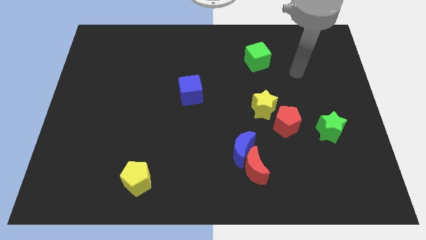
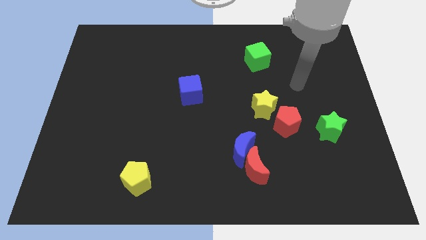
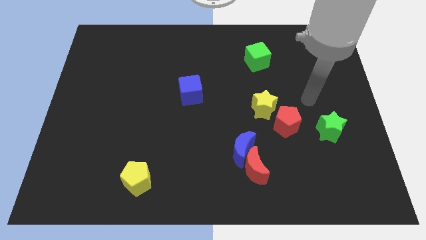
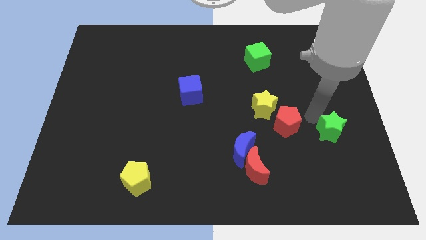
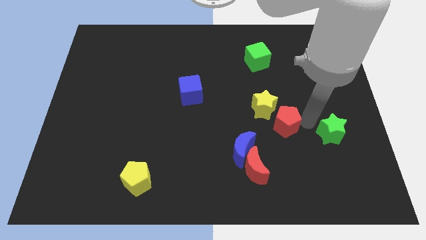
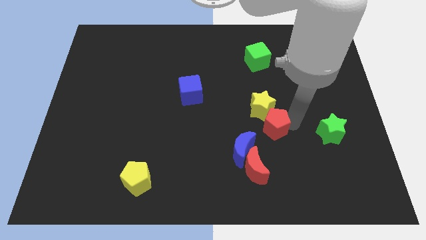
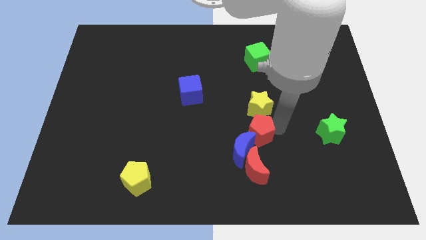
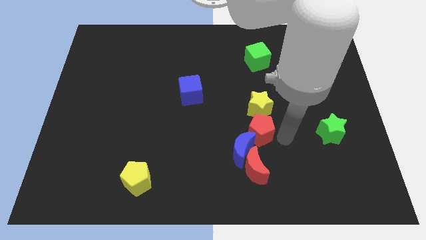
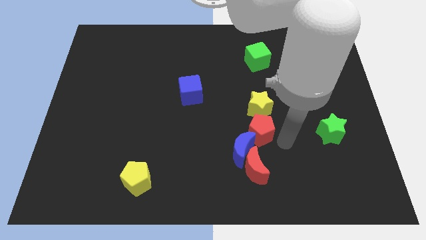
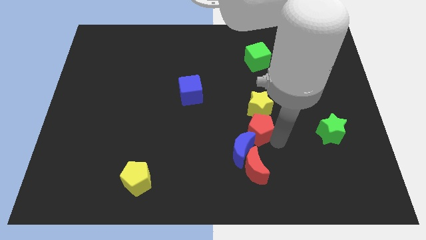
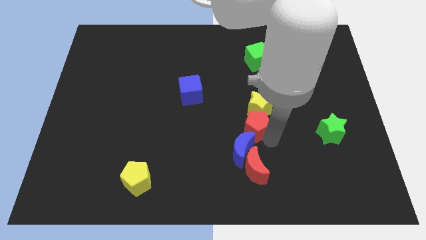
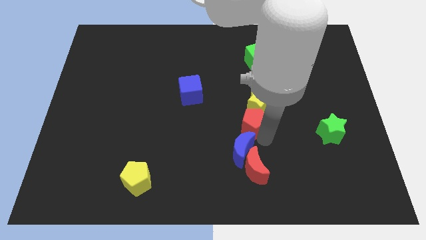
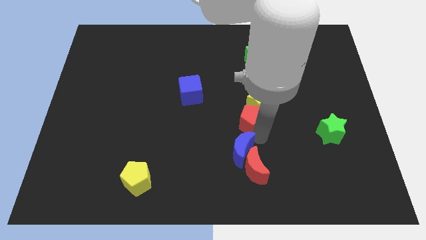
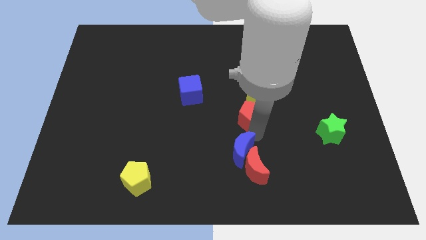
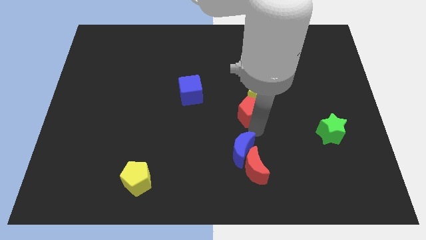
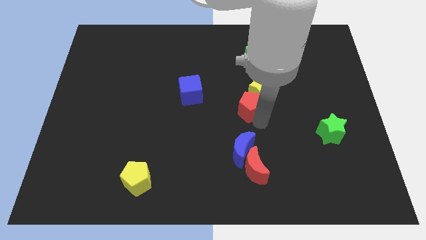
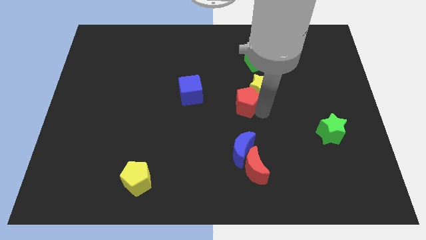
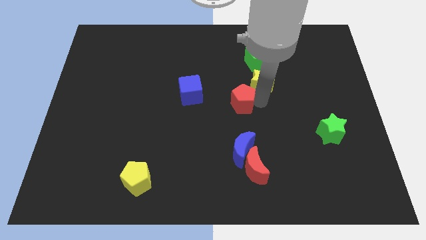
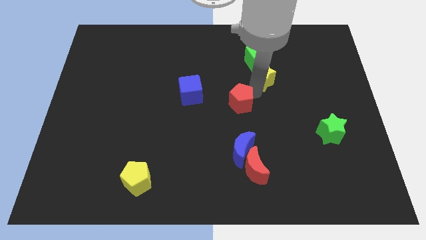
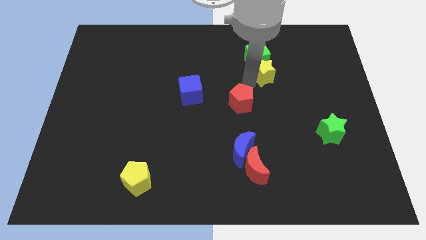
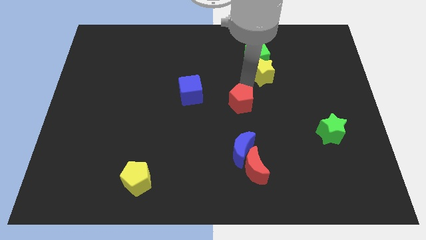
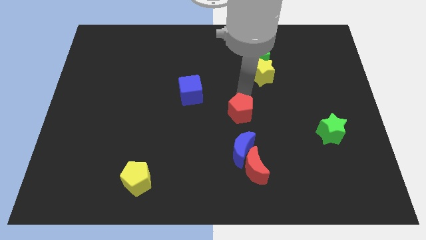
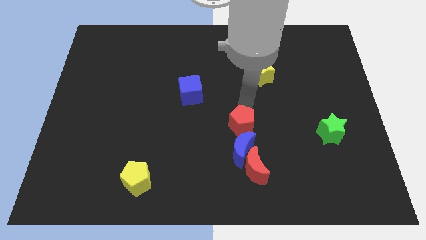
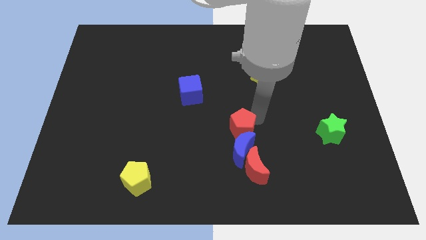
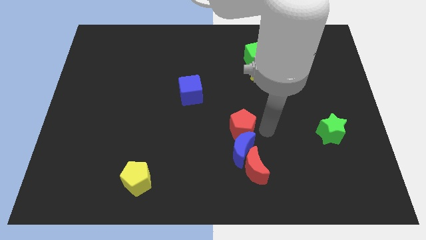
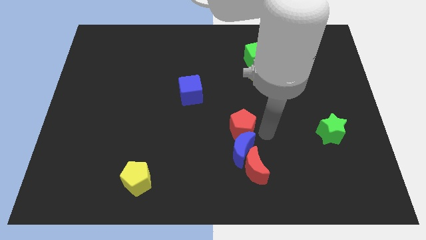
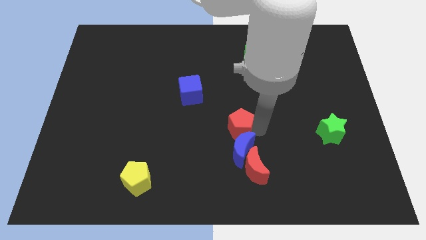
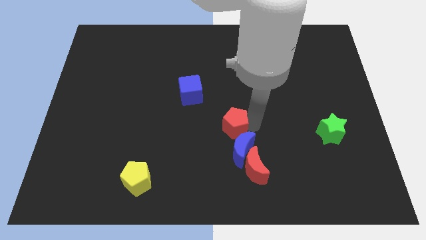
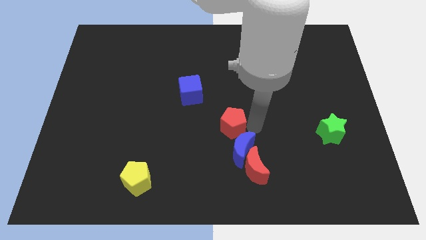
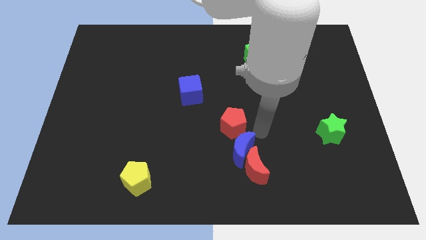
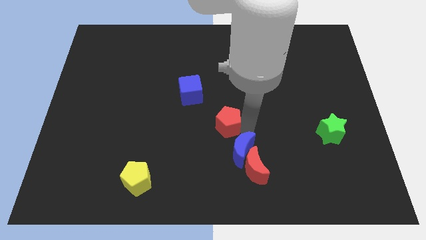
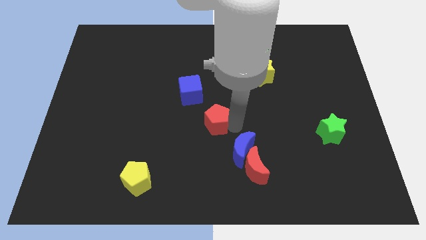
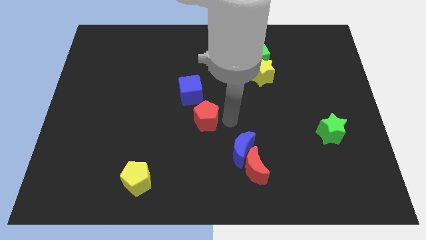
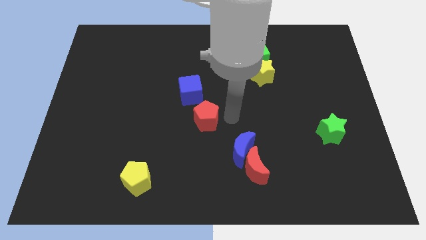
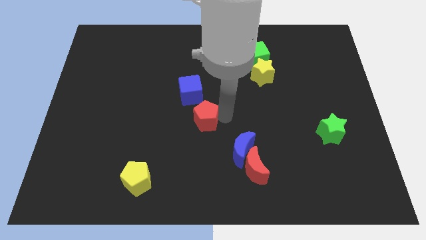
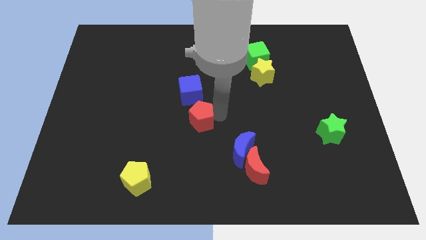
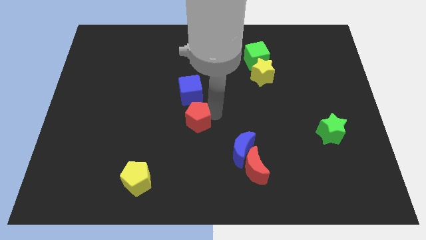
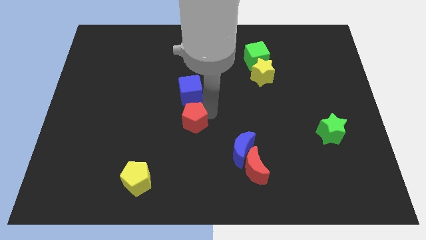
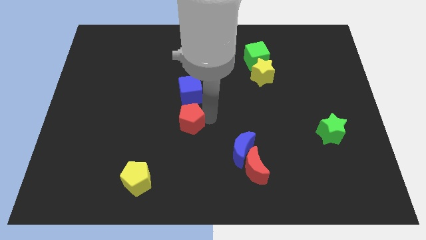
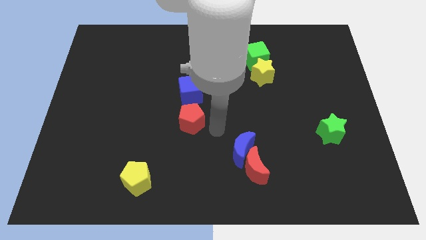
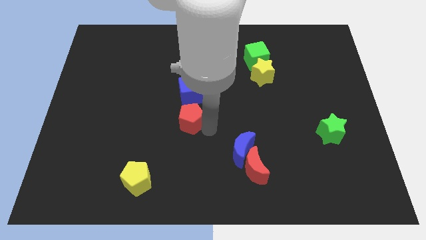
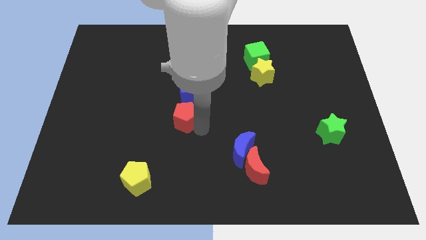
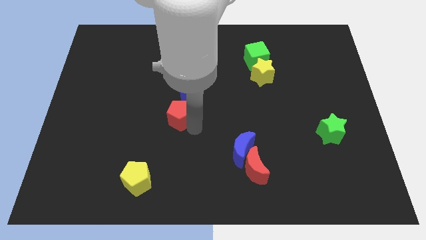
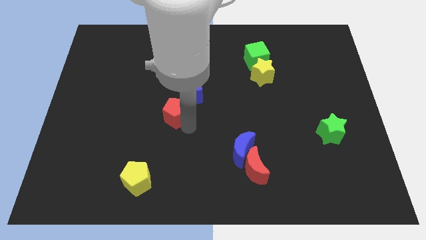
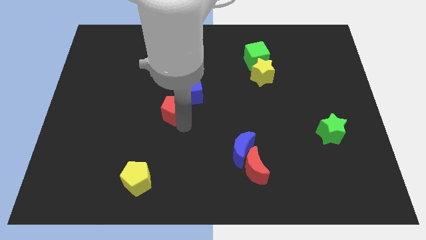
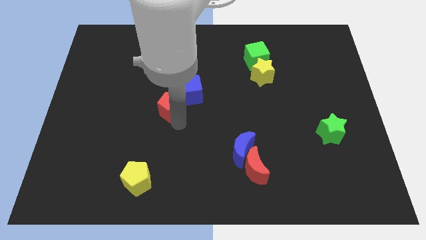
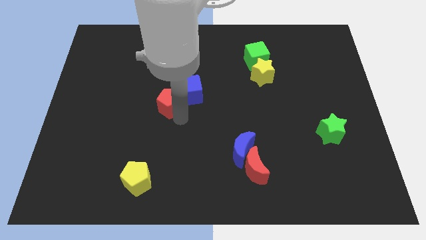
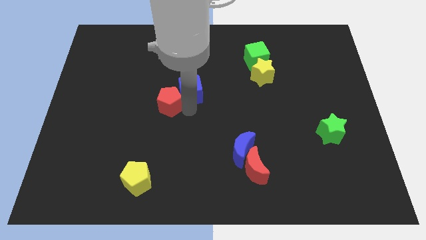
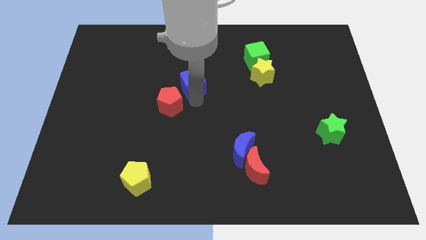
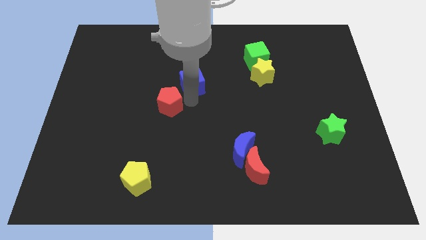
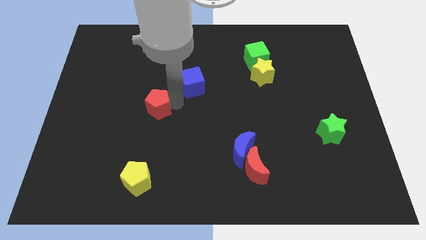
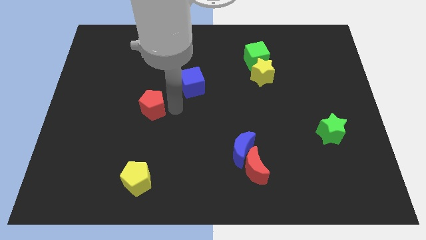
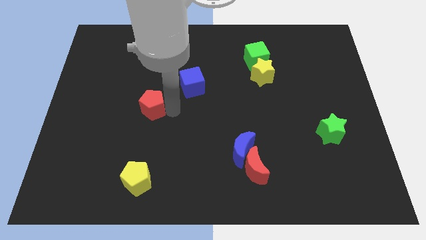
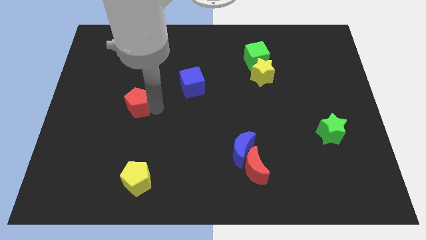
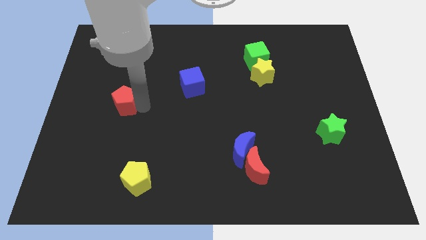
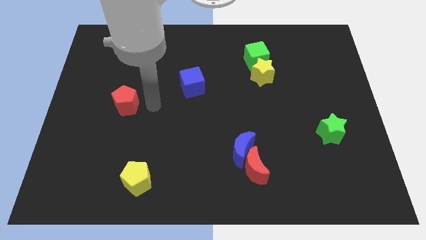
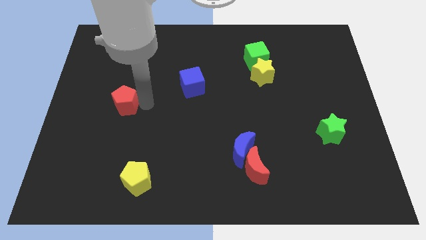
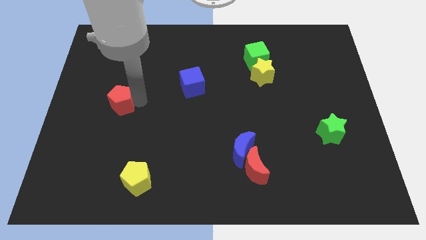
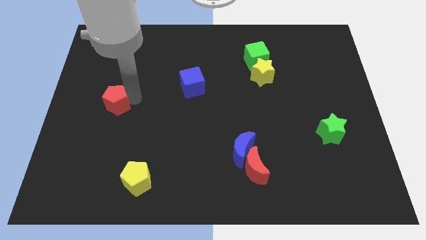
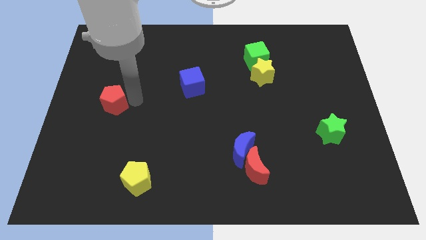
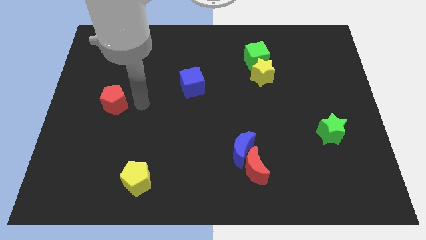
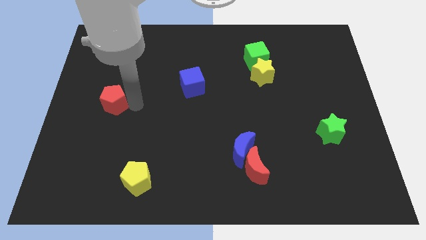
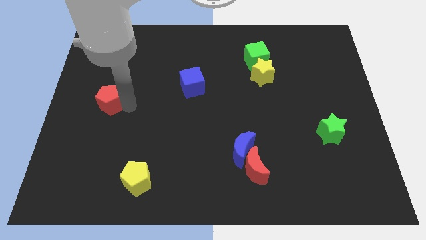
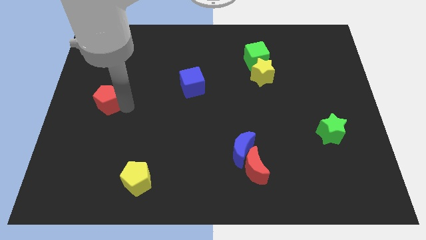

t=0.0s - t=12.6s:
push the red pentagon to the center left
